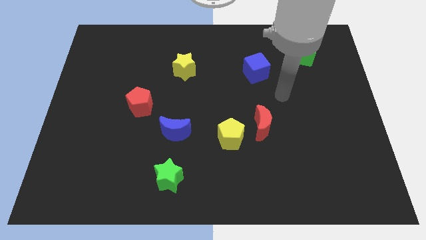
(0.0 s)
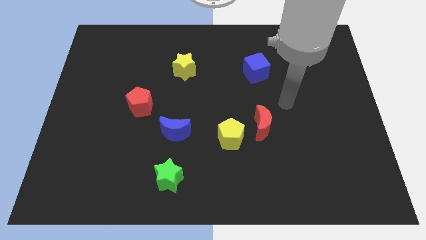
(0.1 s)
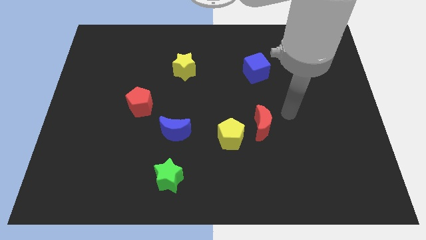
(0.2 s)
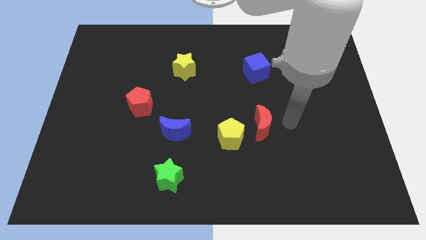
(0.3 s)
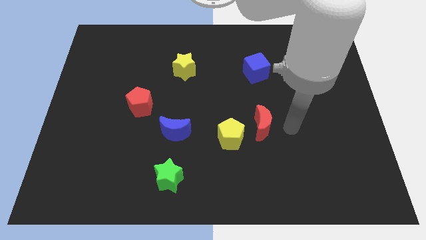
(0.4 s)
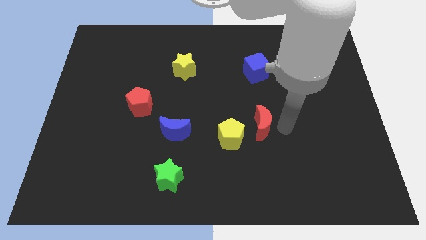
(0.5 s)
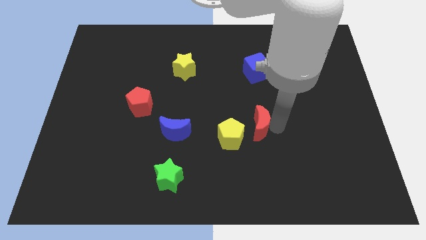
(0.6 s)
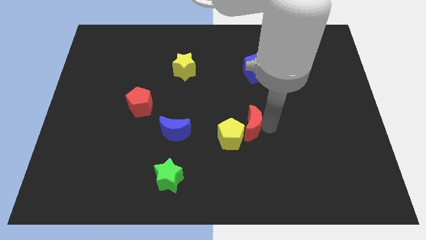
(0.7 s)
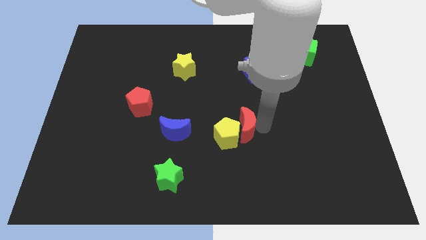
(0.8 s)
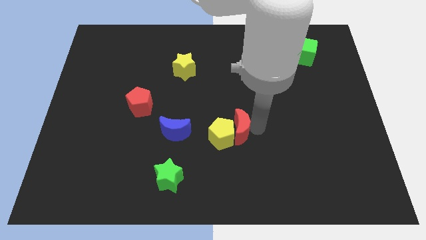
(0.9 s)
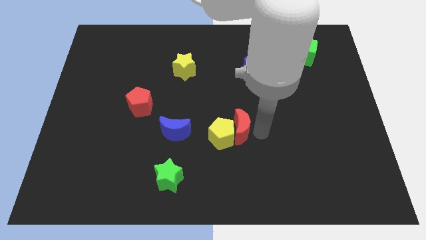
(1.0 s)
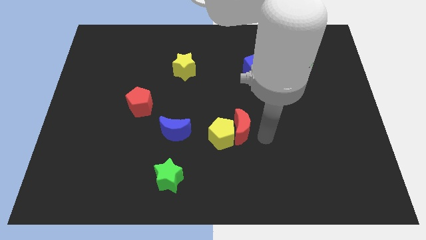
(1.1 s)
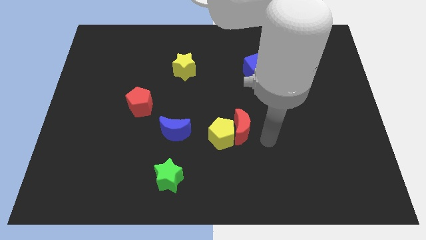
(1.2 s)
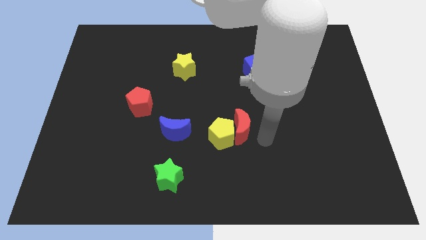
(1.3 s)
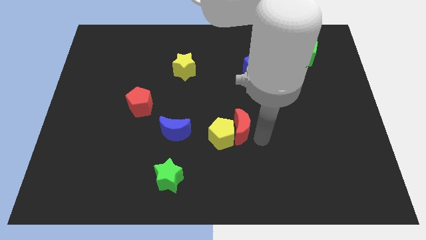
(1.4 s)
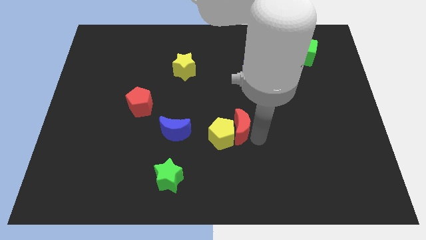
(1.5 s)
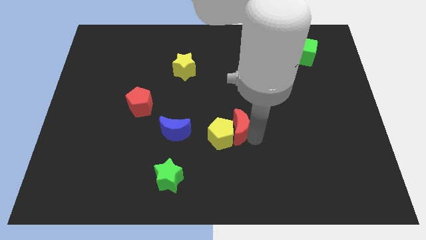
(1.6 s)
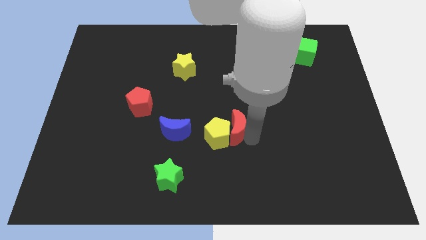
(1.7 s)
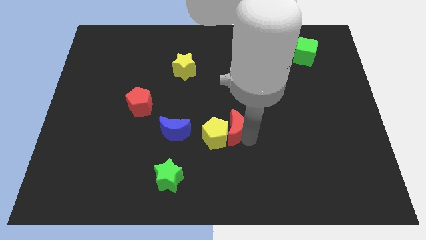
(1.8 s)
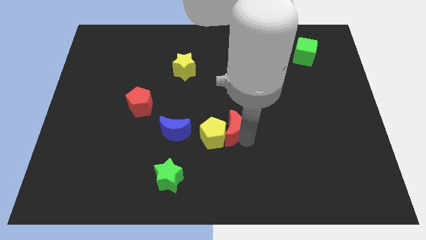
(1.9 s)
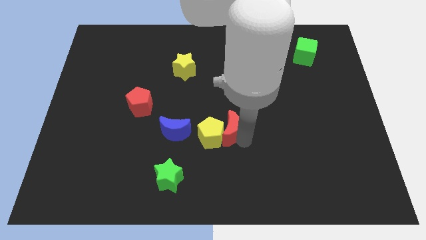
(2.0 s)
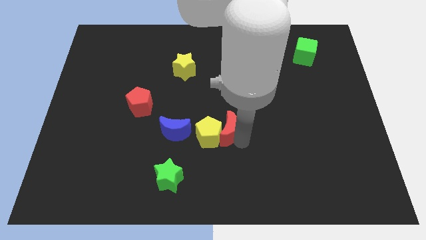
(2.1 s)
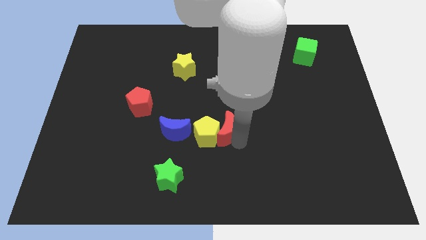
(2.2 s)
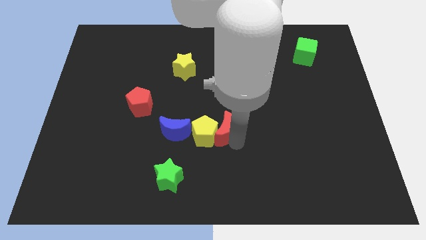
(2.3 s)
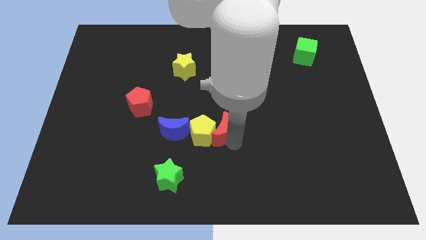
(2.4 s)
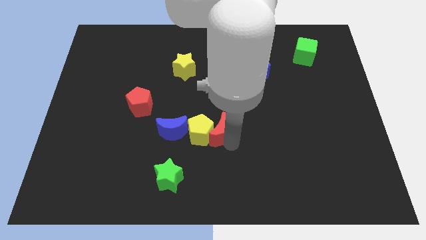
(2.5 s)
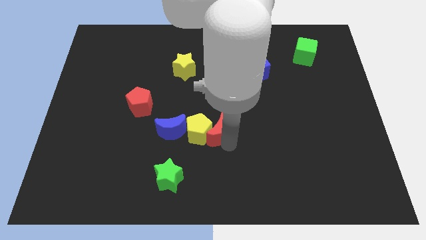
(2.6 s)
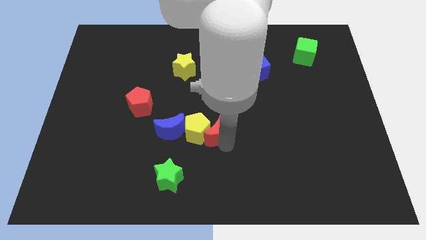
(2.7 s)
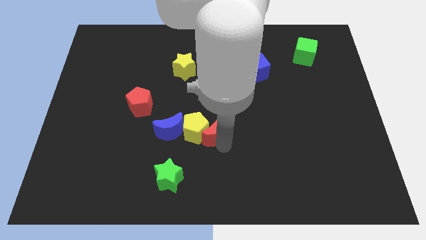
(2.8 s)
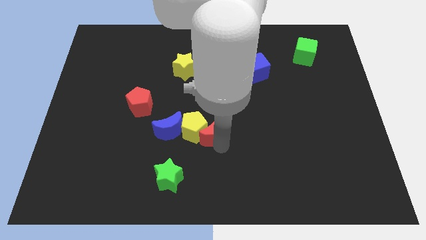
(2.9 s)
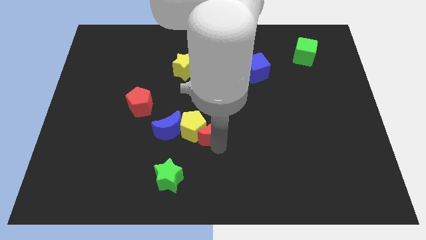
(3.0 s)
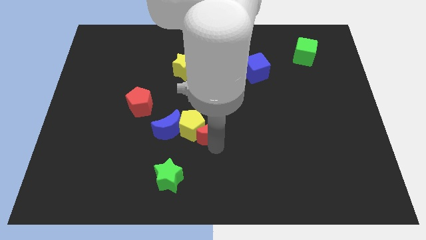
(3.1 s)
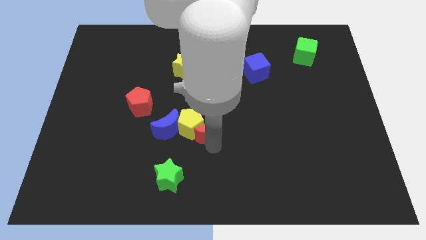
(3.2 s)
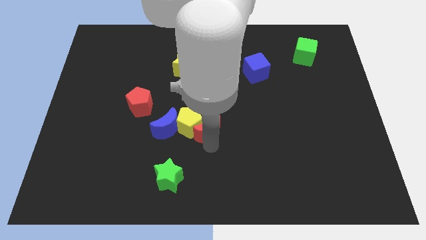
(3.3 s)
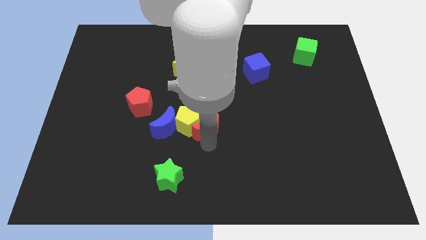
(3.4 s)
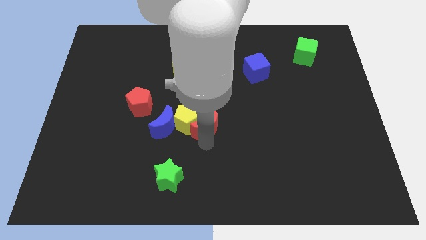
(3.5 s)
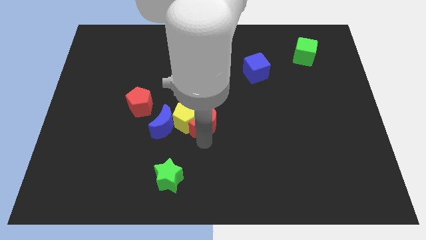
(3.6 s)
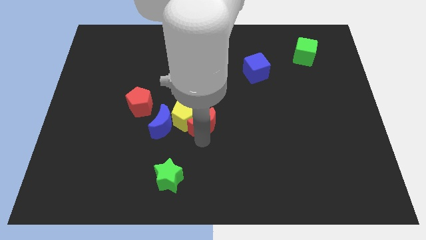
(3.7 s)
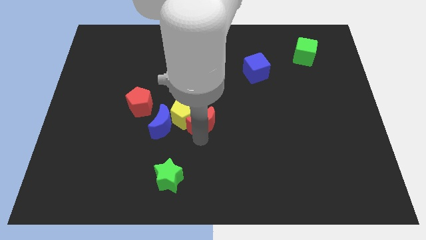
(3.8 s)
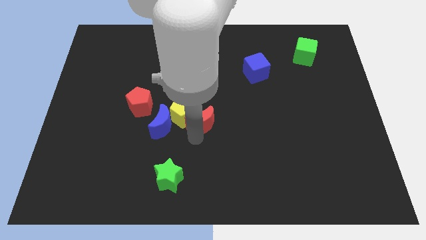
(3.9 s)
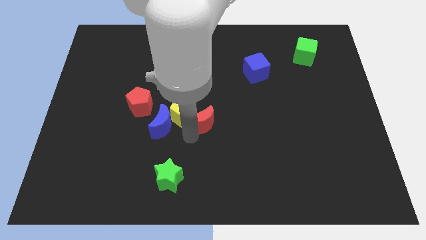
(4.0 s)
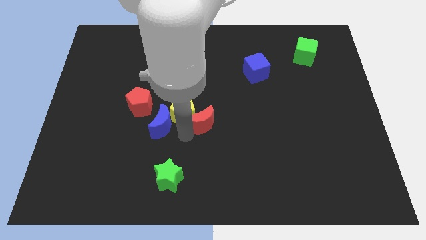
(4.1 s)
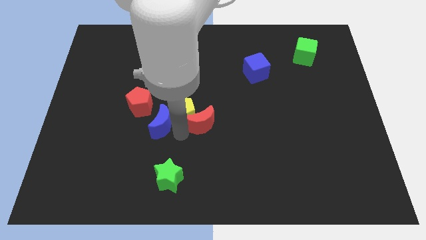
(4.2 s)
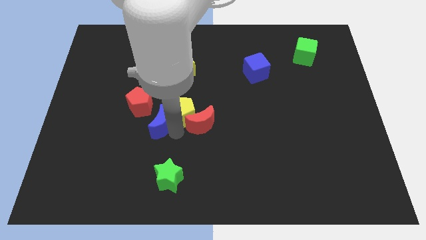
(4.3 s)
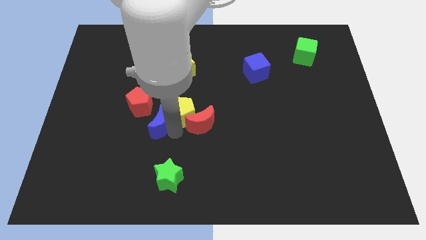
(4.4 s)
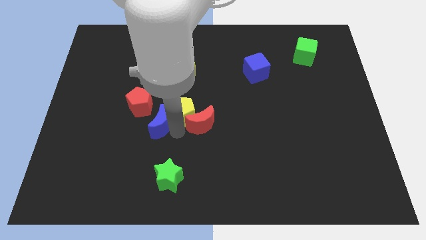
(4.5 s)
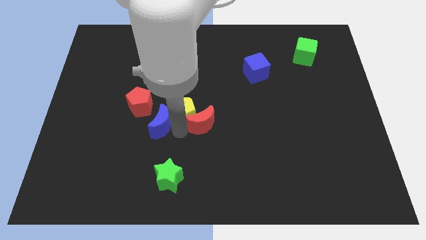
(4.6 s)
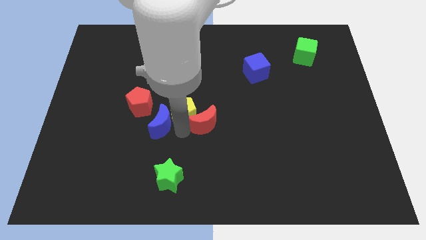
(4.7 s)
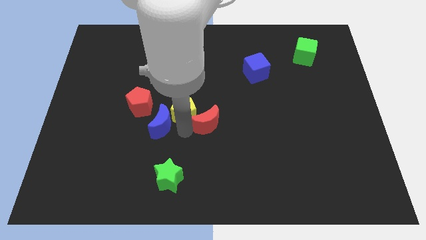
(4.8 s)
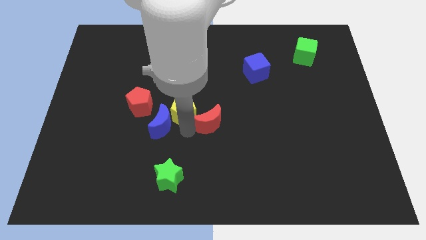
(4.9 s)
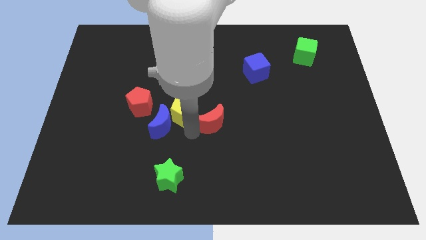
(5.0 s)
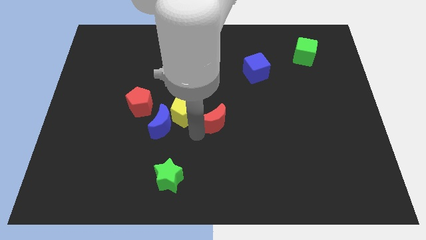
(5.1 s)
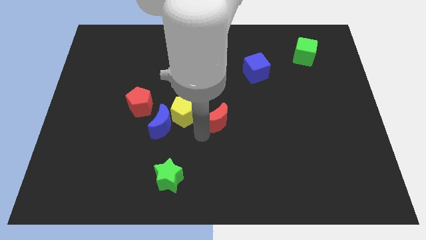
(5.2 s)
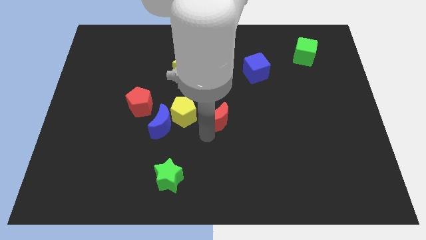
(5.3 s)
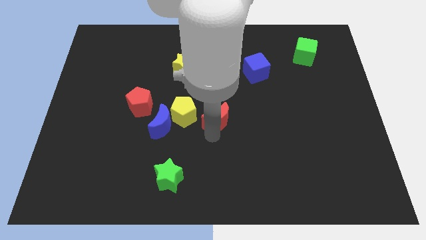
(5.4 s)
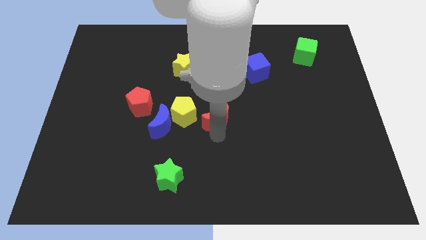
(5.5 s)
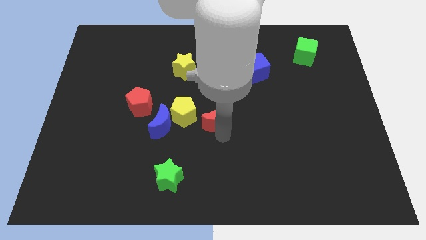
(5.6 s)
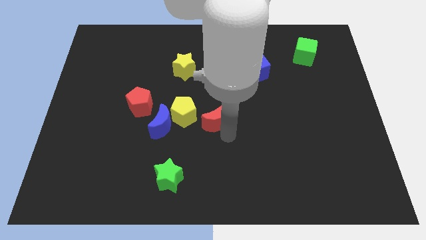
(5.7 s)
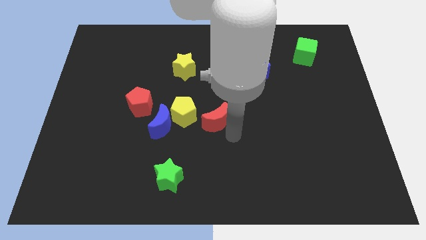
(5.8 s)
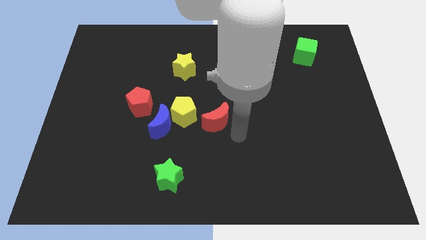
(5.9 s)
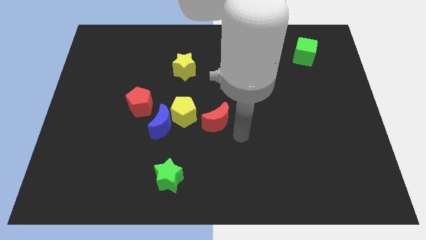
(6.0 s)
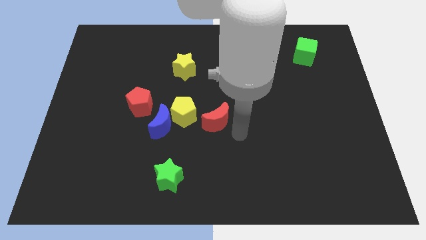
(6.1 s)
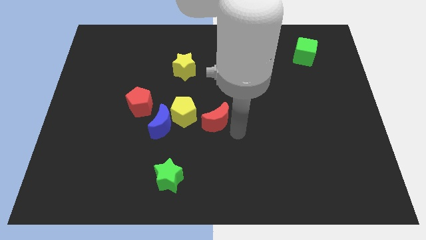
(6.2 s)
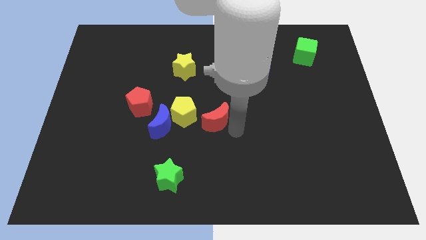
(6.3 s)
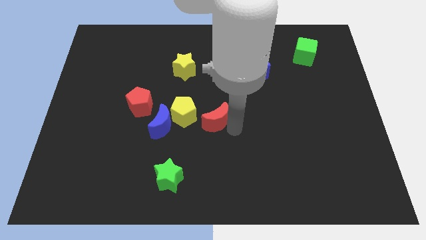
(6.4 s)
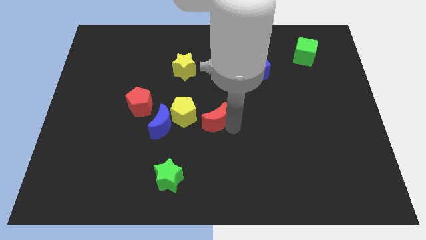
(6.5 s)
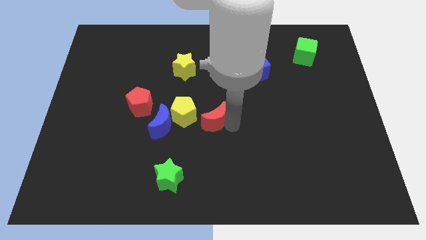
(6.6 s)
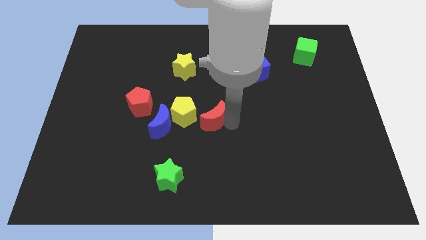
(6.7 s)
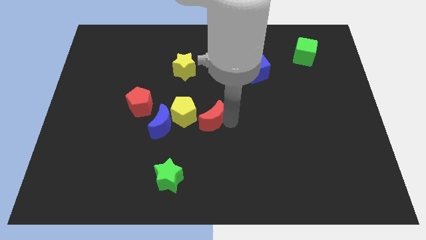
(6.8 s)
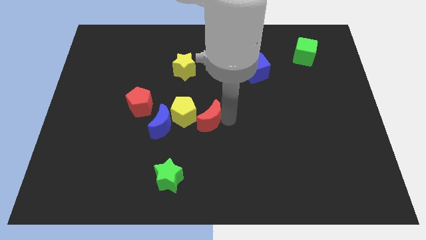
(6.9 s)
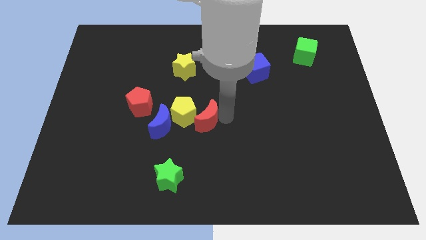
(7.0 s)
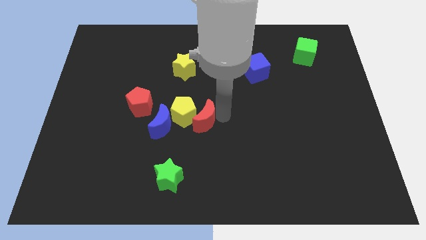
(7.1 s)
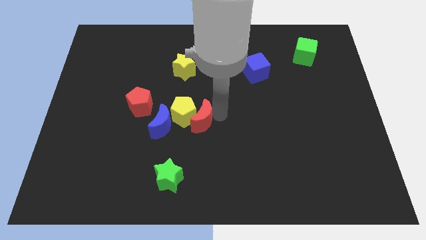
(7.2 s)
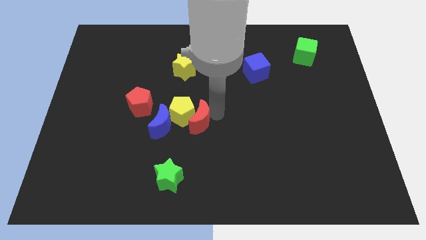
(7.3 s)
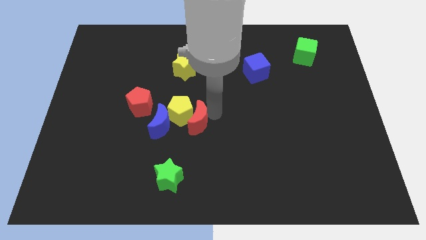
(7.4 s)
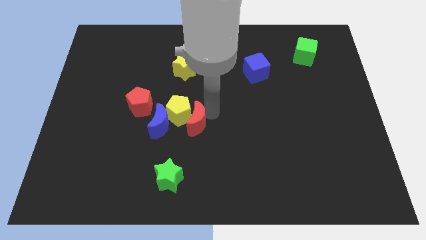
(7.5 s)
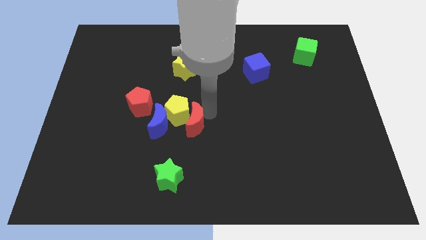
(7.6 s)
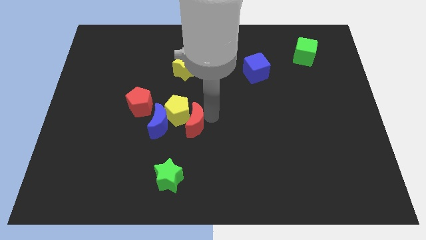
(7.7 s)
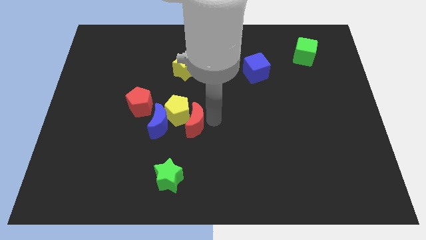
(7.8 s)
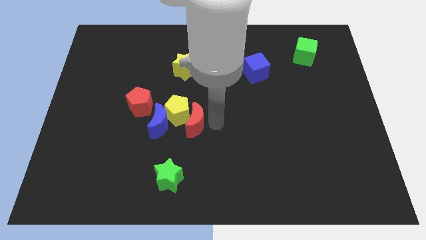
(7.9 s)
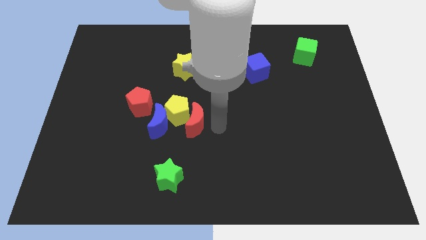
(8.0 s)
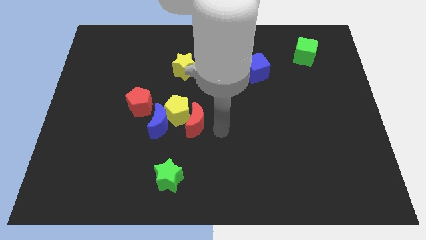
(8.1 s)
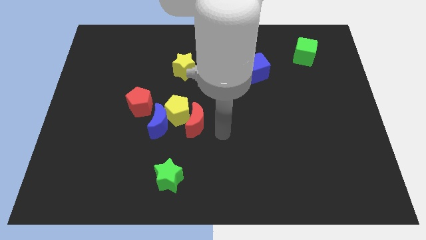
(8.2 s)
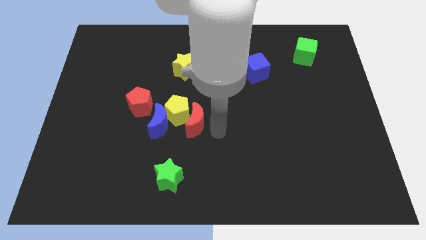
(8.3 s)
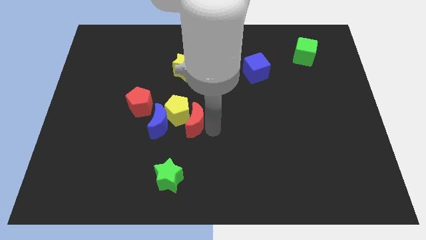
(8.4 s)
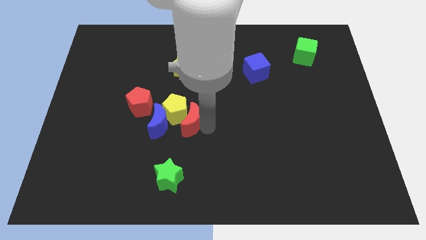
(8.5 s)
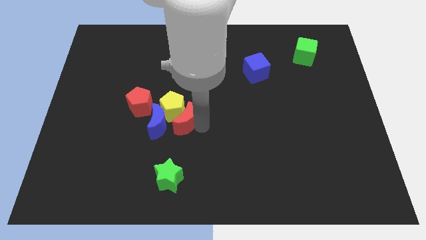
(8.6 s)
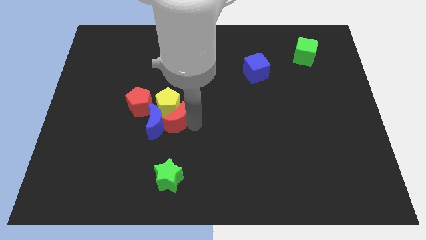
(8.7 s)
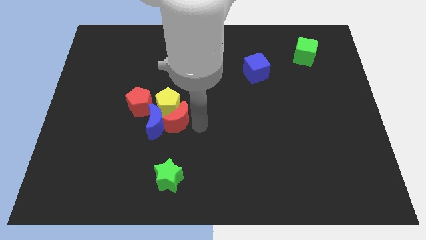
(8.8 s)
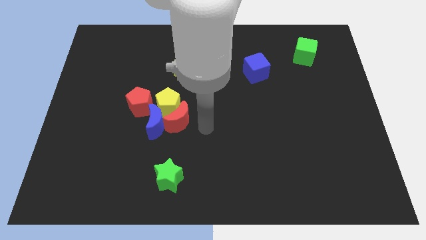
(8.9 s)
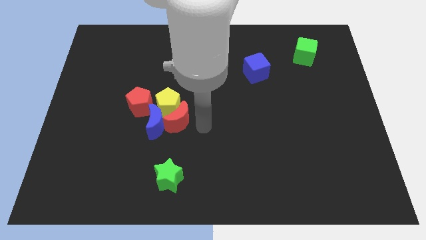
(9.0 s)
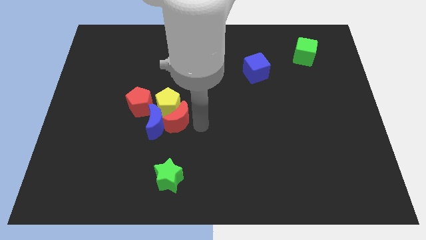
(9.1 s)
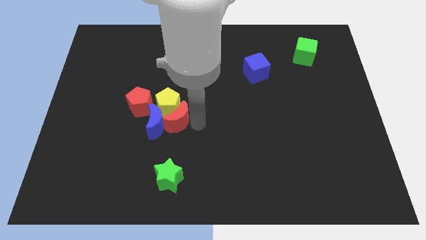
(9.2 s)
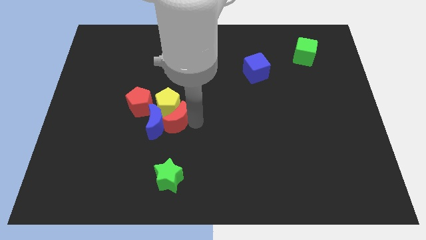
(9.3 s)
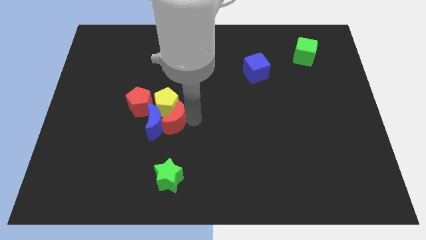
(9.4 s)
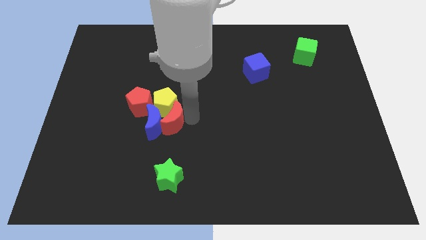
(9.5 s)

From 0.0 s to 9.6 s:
push the red moon left
